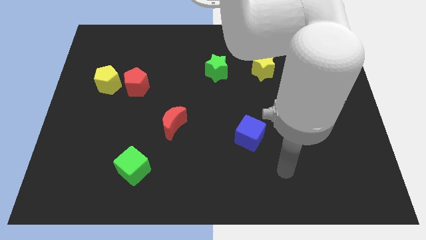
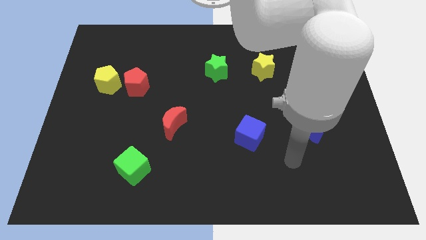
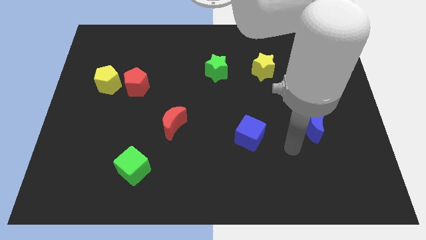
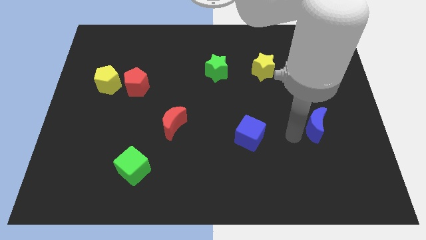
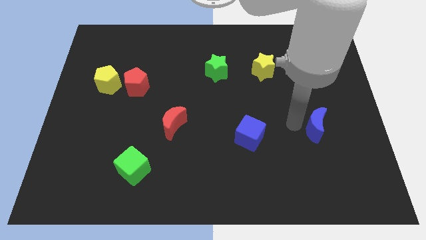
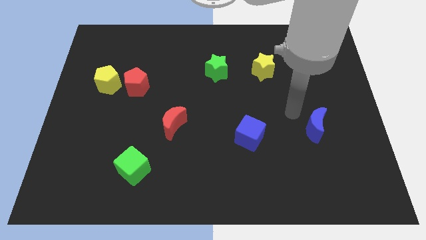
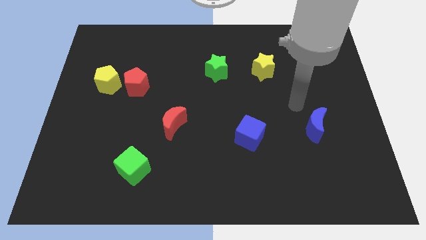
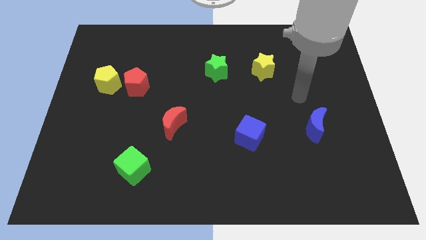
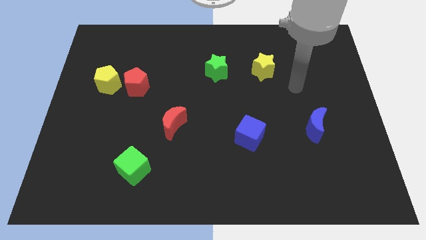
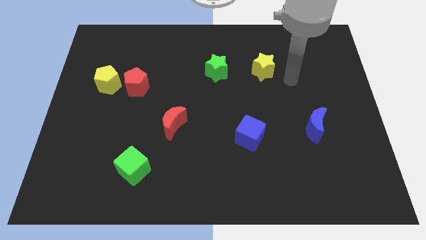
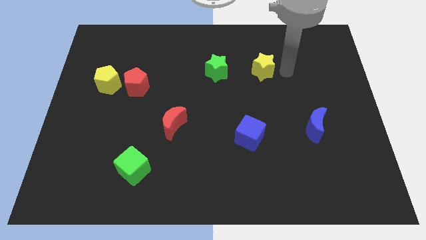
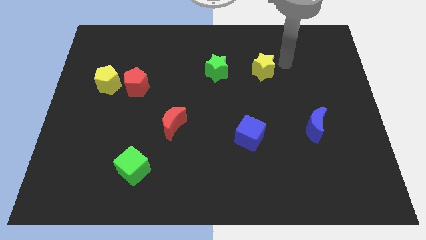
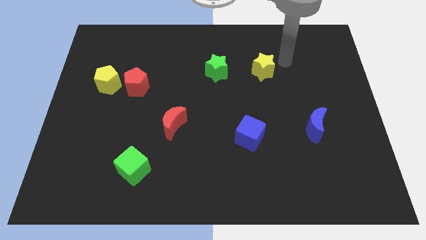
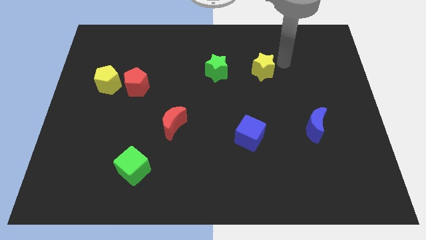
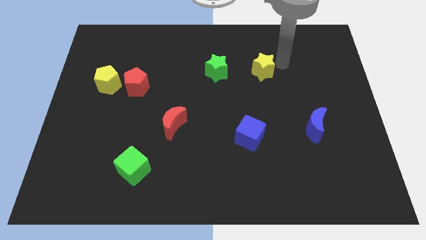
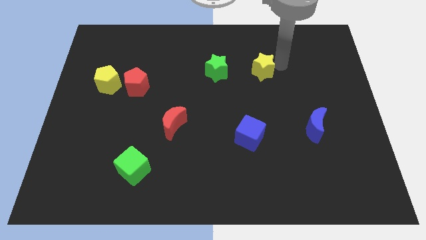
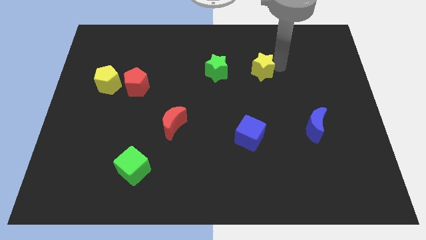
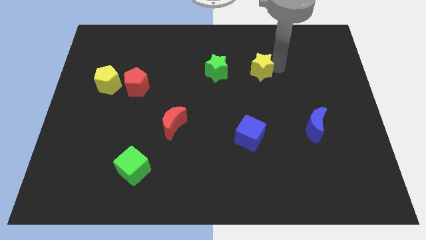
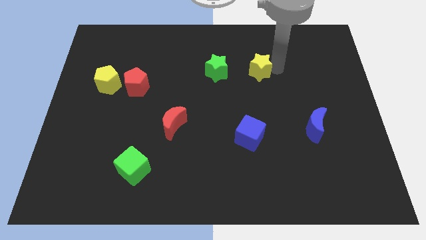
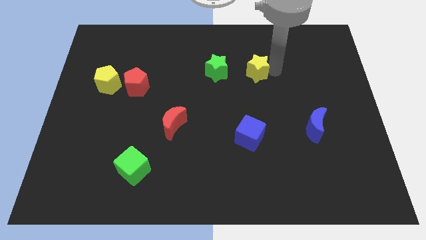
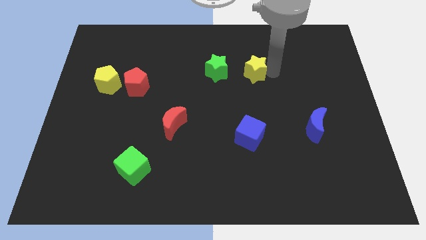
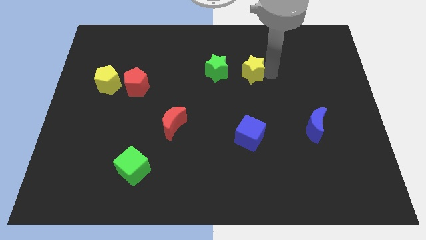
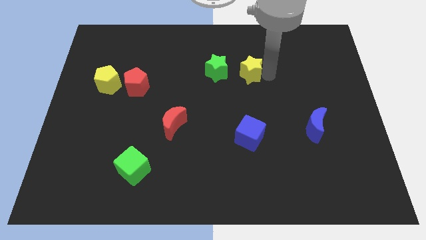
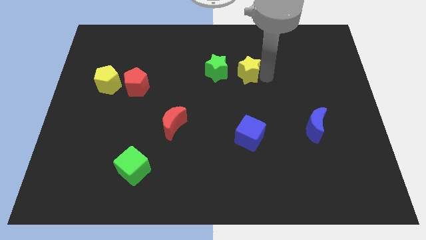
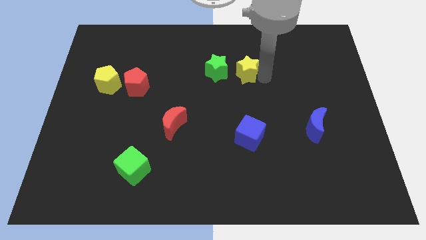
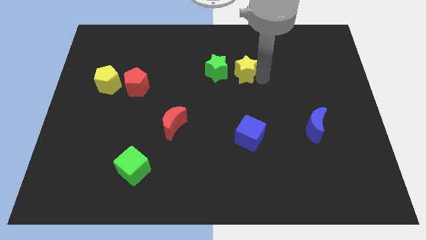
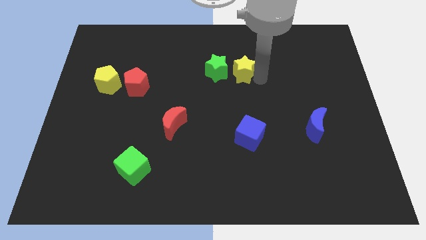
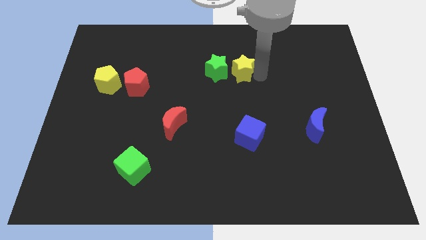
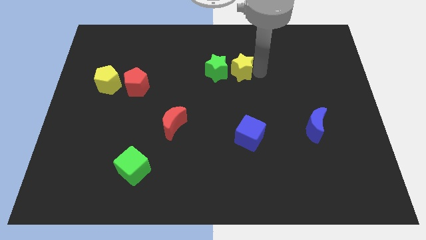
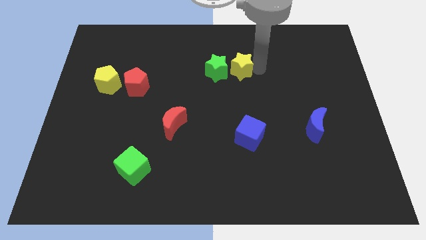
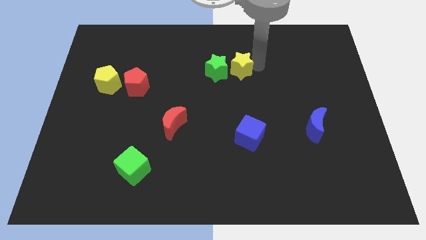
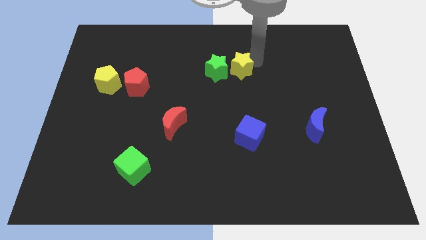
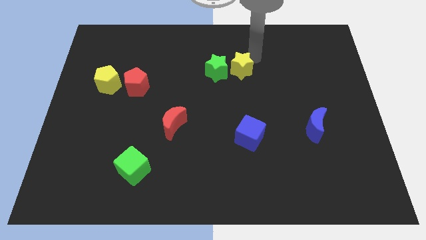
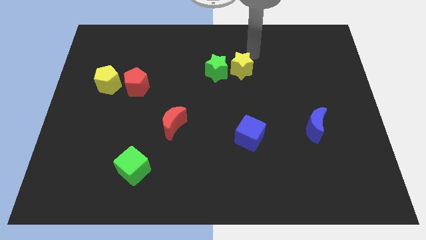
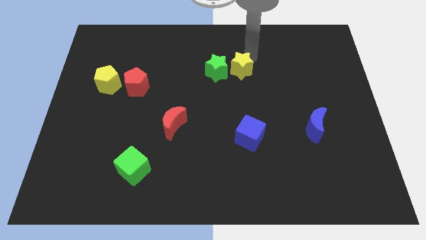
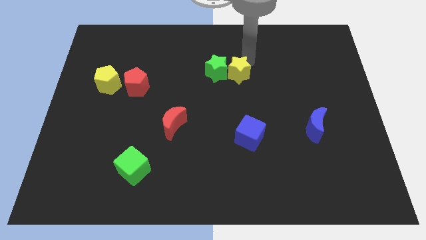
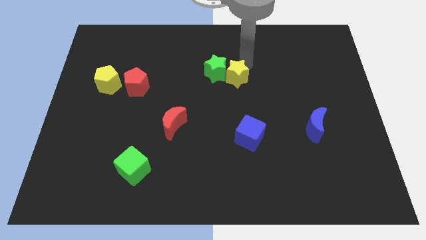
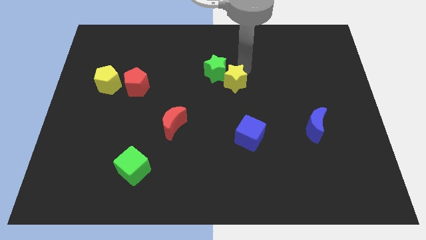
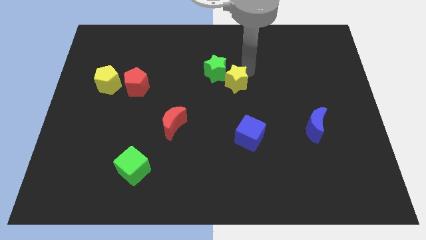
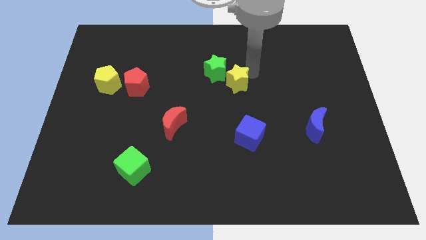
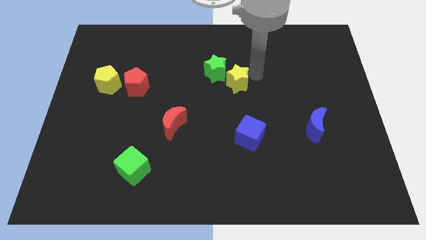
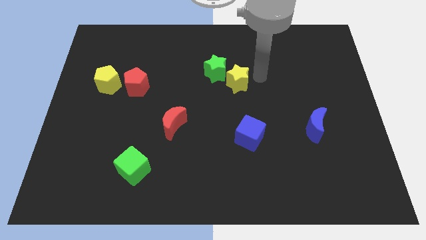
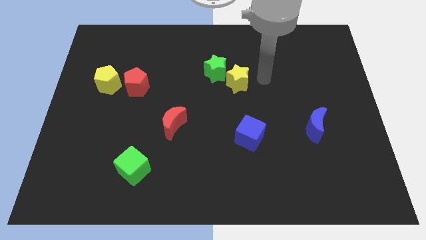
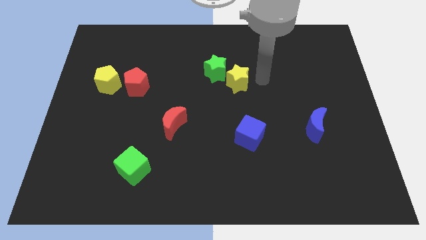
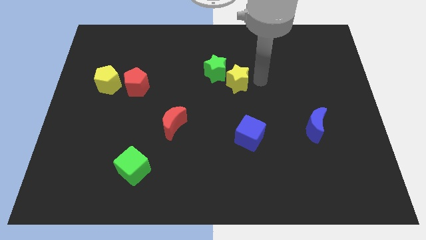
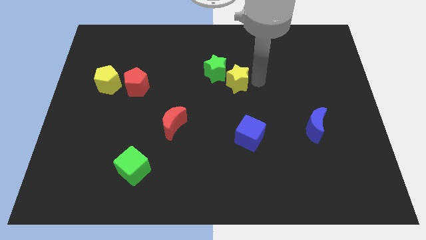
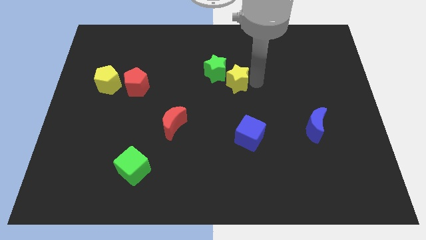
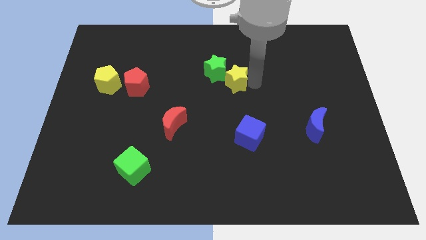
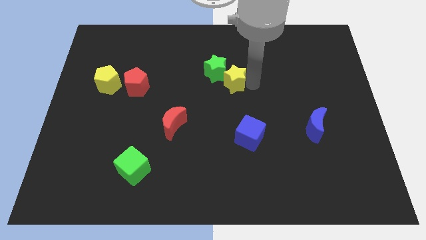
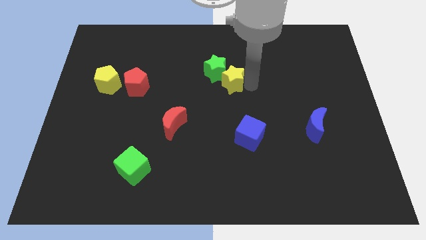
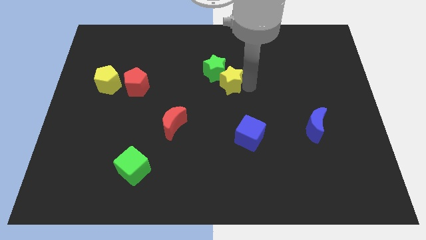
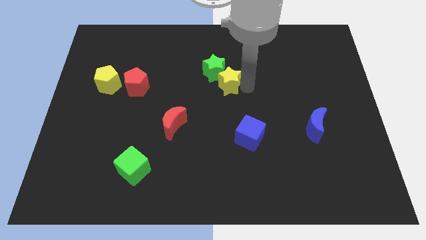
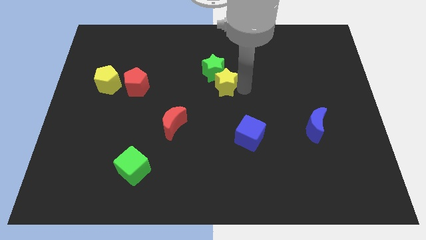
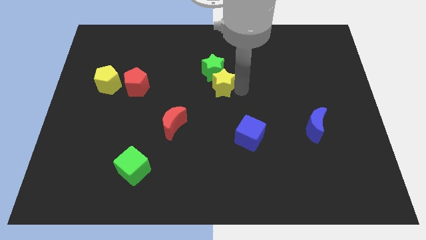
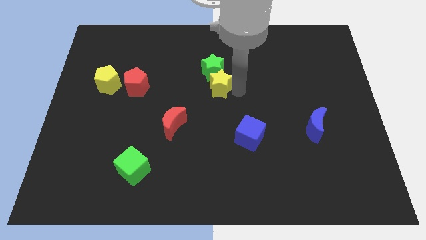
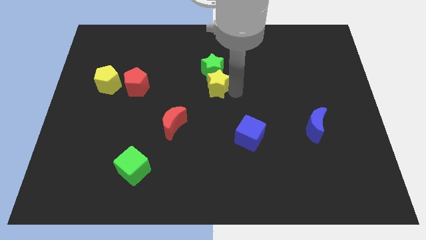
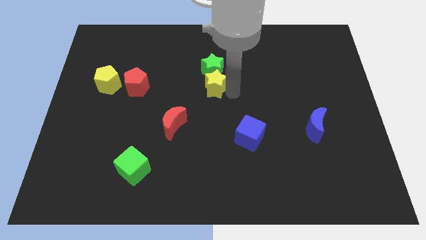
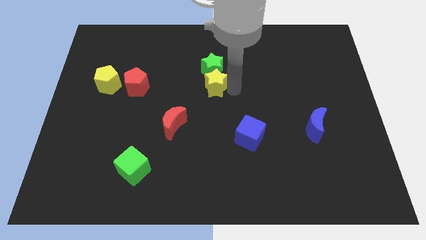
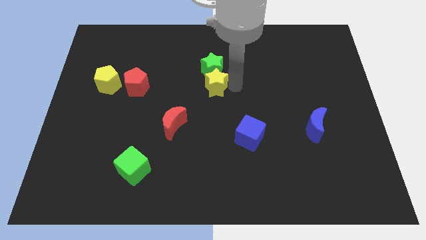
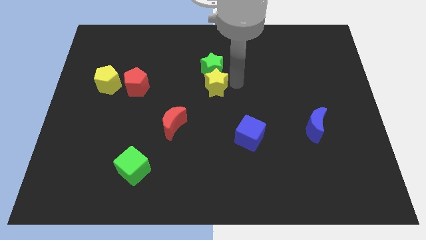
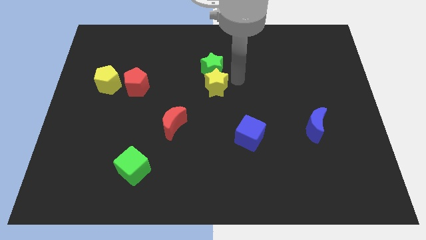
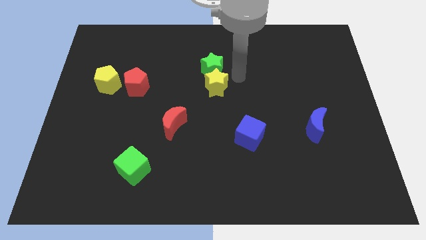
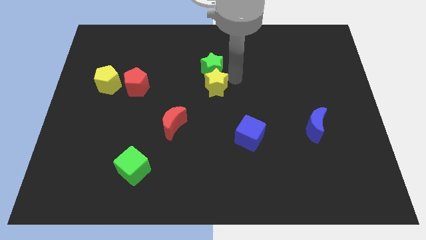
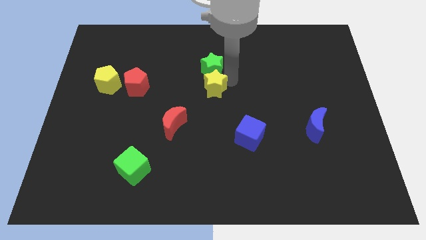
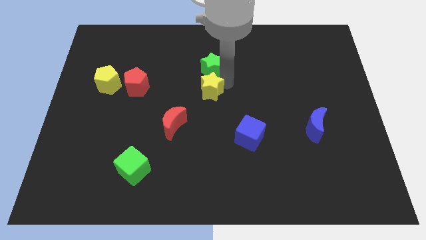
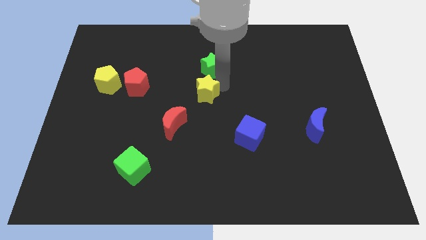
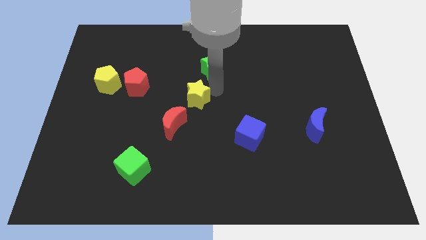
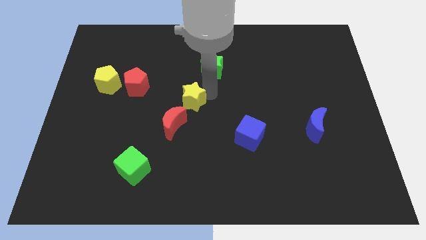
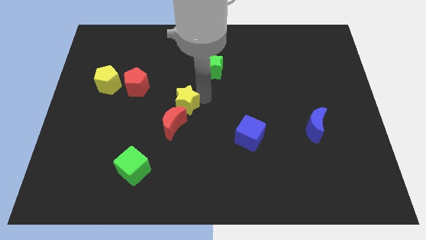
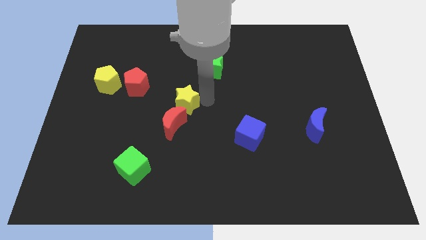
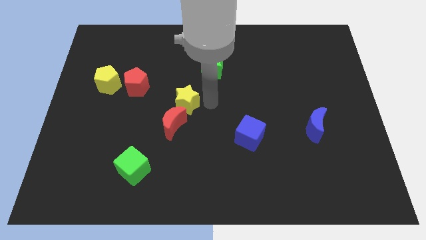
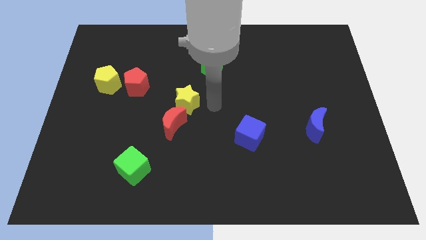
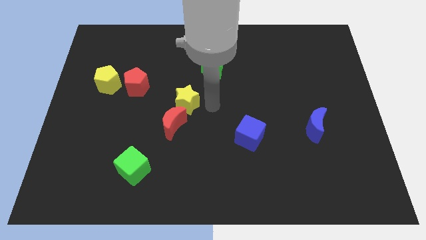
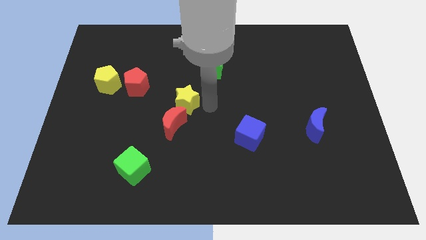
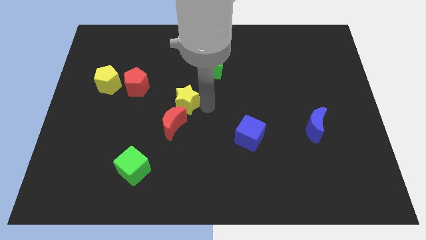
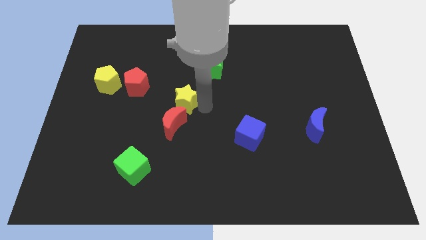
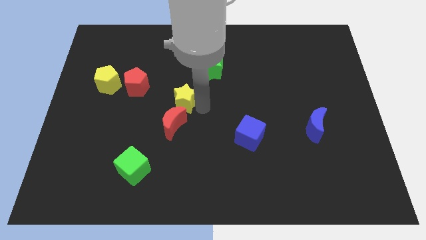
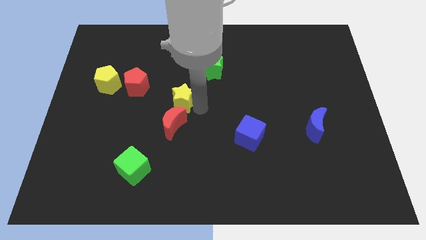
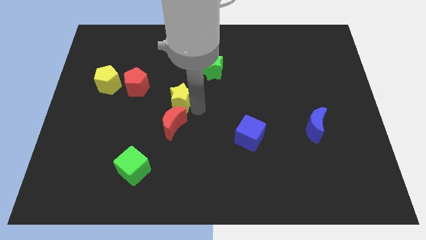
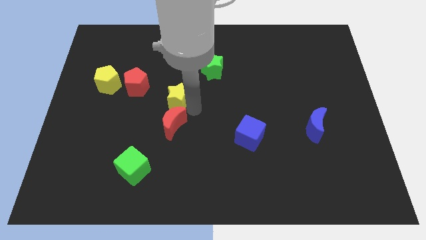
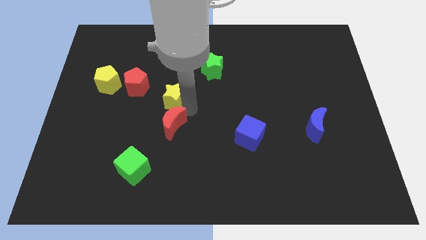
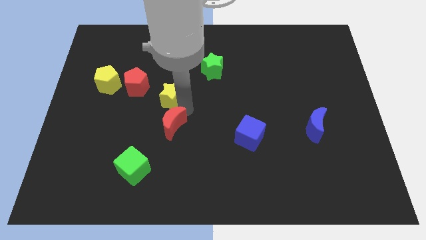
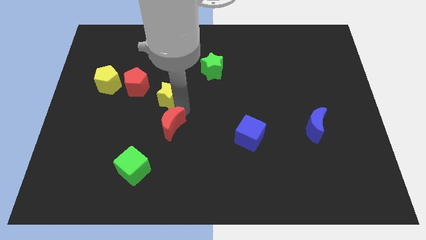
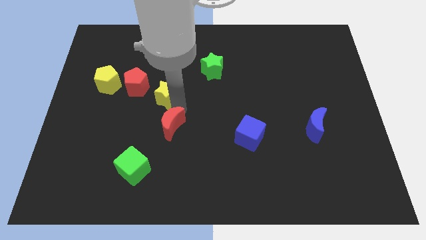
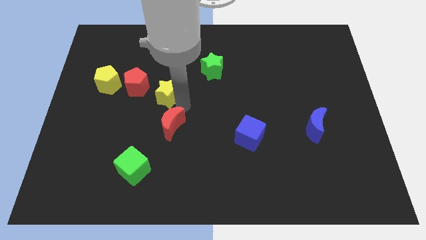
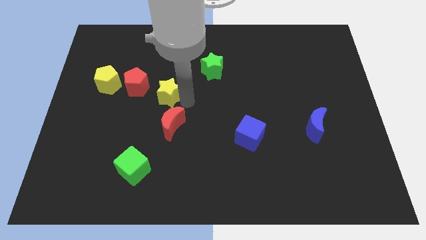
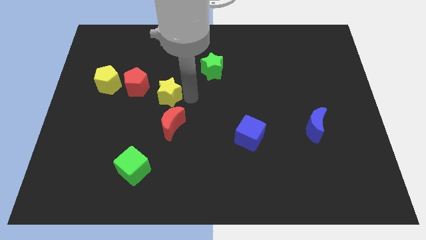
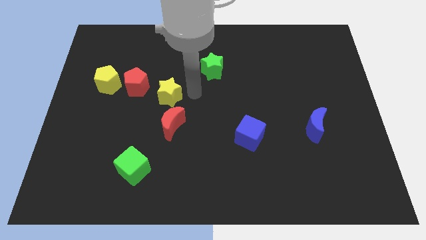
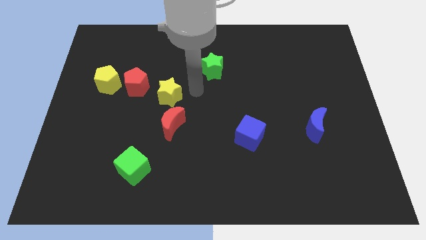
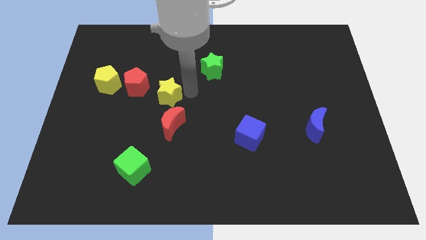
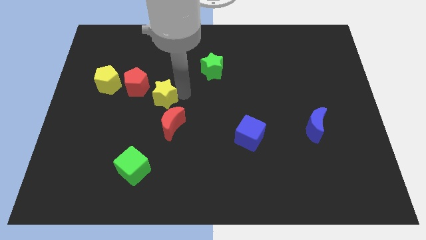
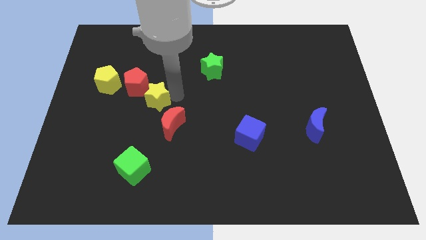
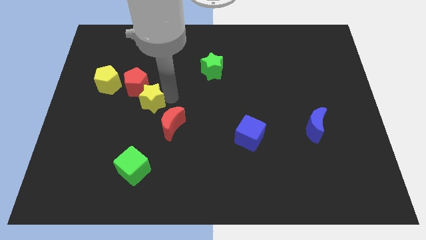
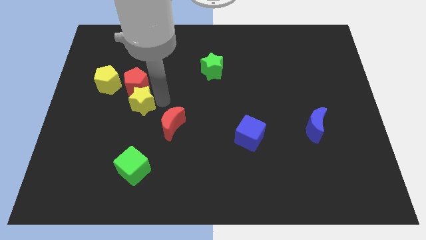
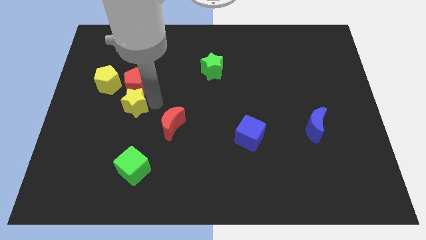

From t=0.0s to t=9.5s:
push the yellow star diagonally down and to the left of the red pentagon
